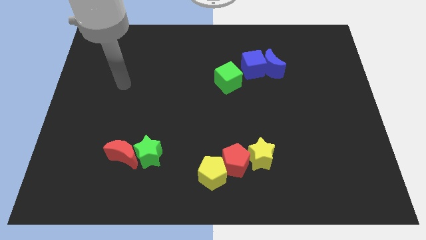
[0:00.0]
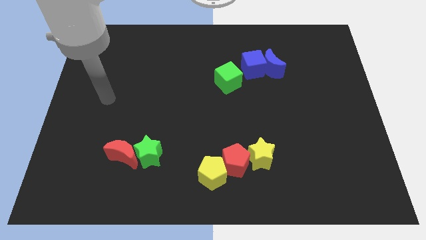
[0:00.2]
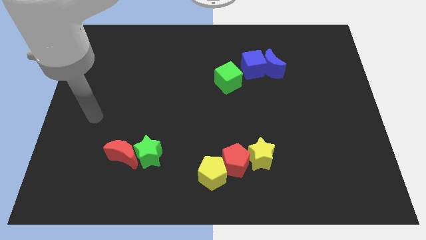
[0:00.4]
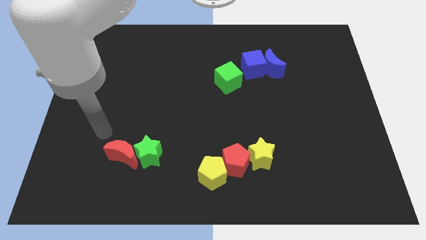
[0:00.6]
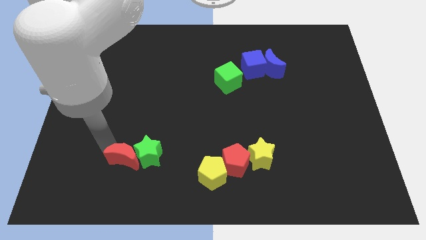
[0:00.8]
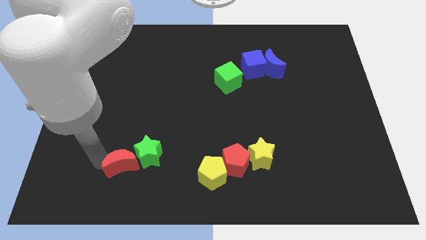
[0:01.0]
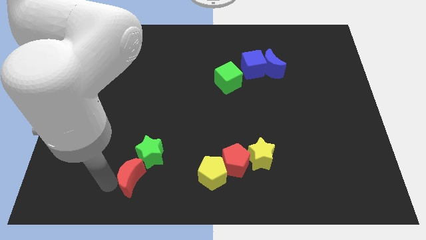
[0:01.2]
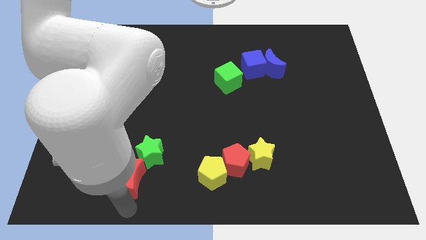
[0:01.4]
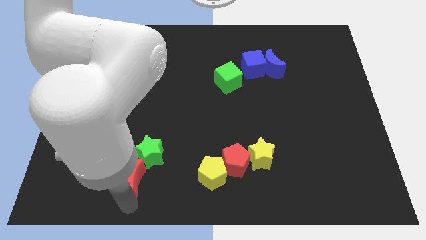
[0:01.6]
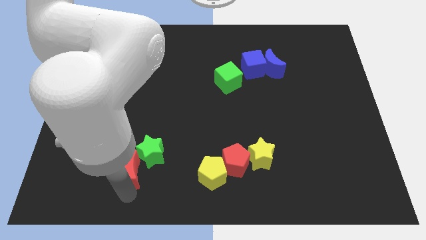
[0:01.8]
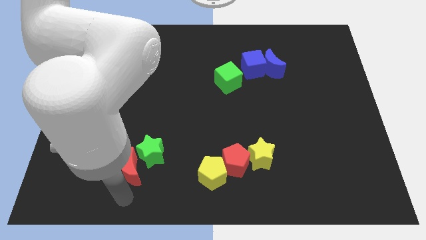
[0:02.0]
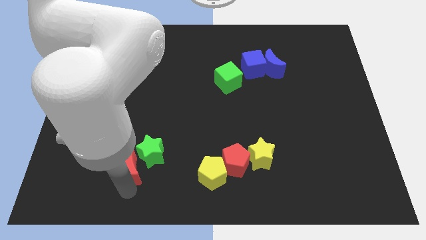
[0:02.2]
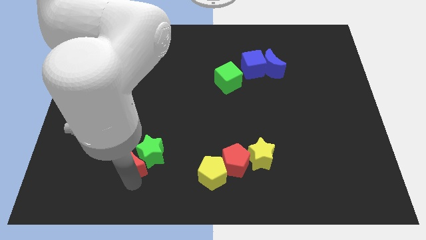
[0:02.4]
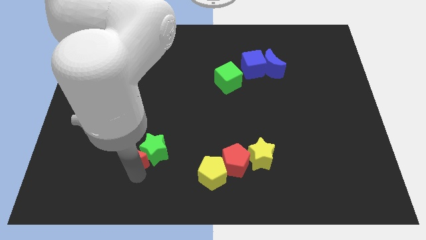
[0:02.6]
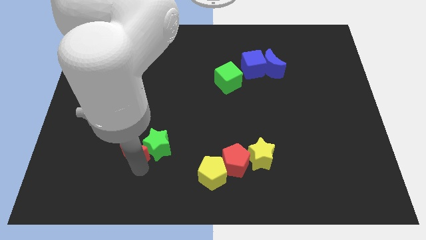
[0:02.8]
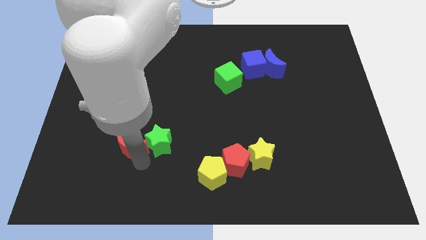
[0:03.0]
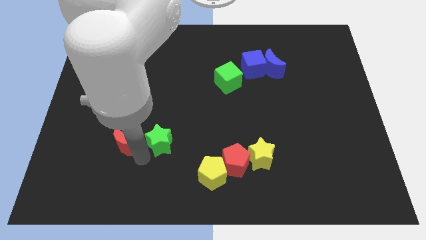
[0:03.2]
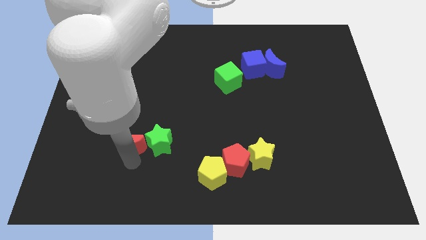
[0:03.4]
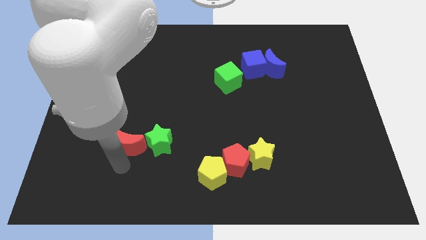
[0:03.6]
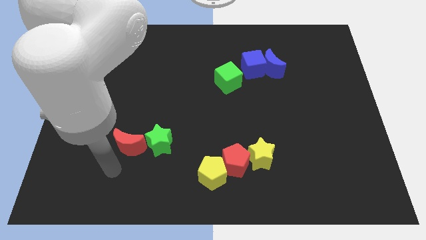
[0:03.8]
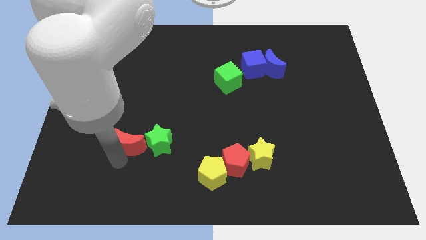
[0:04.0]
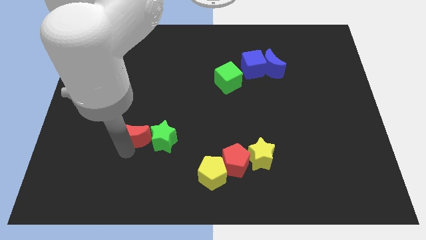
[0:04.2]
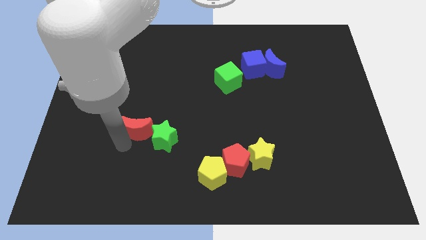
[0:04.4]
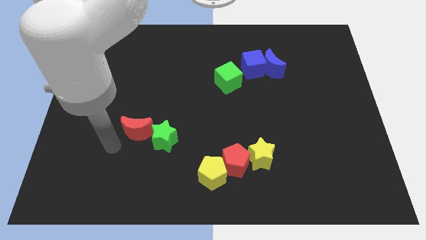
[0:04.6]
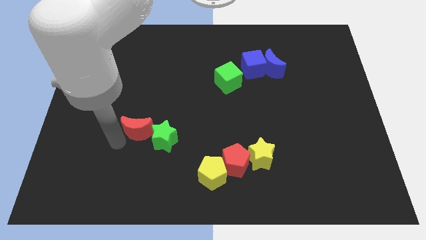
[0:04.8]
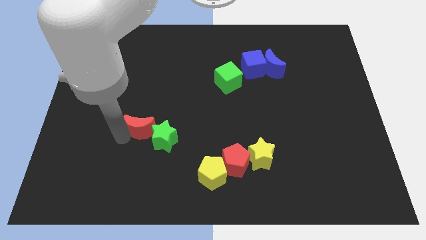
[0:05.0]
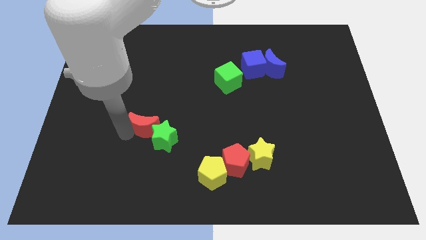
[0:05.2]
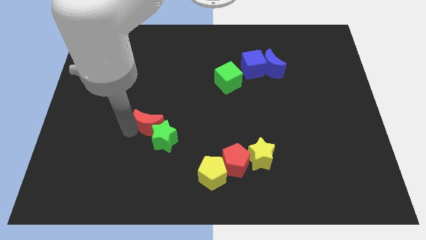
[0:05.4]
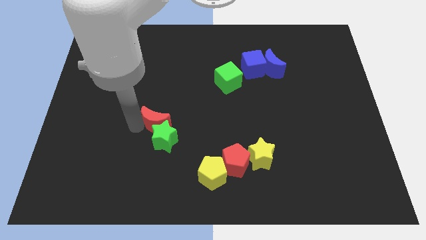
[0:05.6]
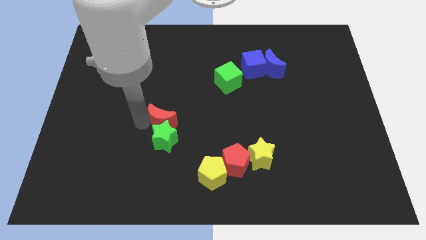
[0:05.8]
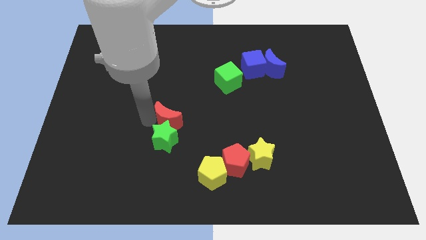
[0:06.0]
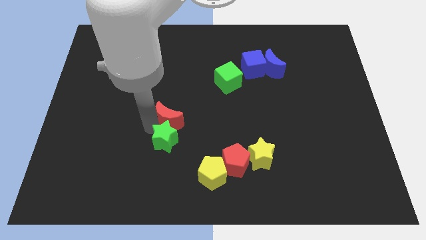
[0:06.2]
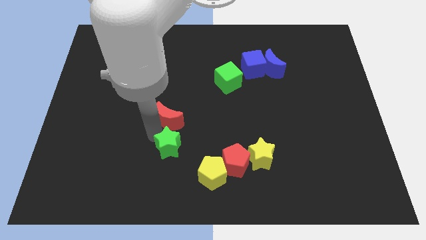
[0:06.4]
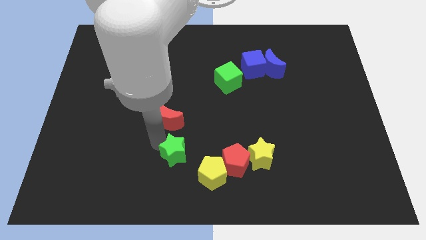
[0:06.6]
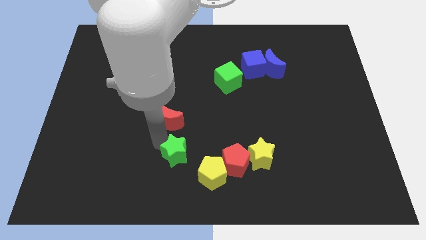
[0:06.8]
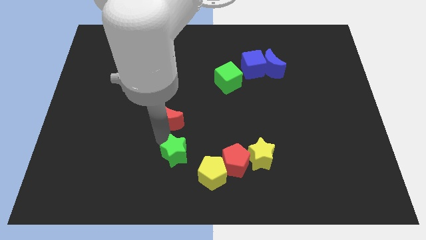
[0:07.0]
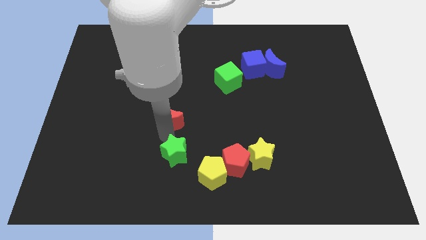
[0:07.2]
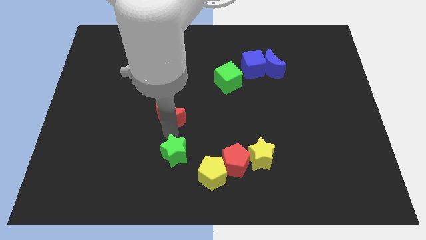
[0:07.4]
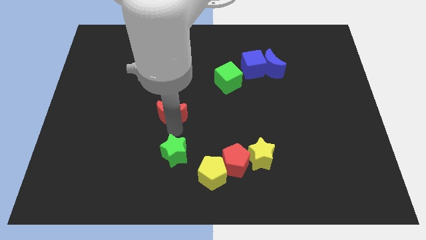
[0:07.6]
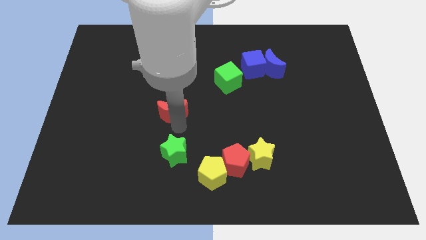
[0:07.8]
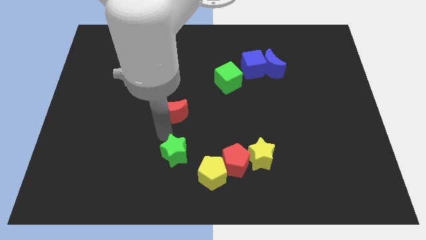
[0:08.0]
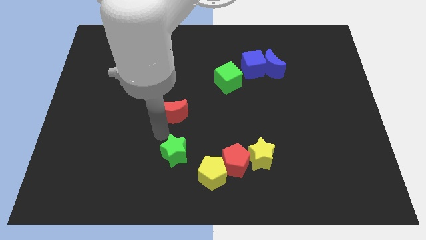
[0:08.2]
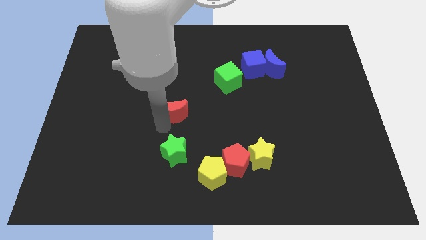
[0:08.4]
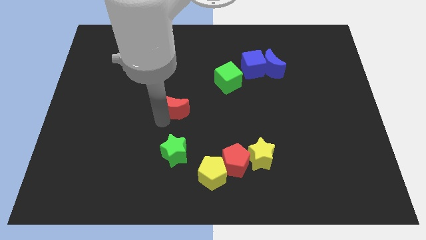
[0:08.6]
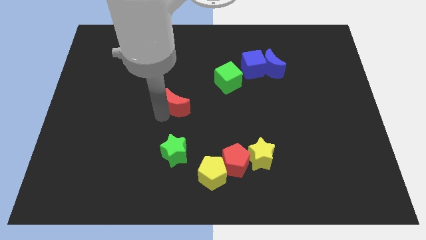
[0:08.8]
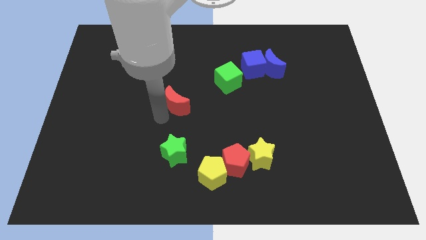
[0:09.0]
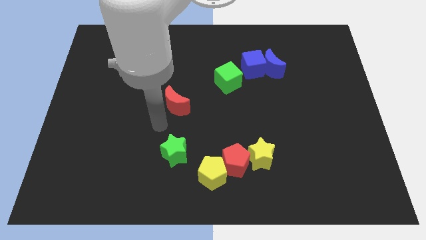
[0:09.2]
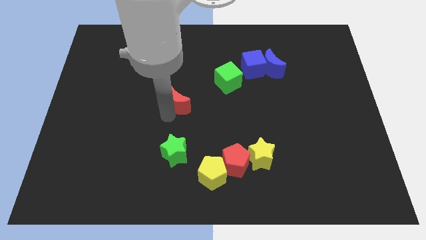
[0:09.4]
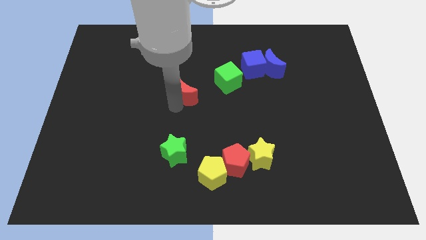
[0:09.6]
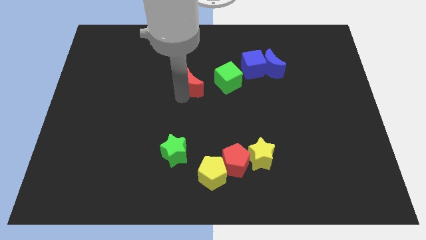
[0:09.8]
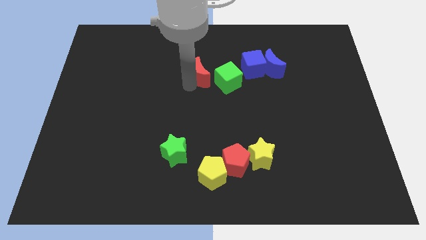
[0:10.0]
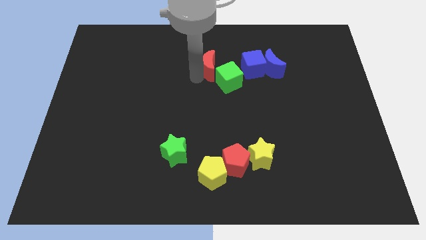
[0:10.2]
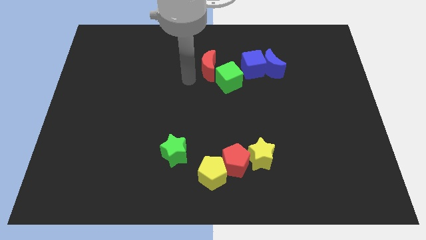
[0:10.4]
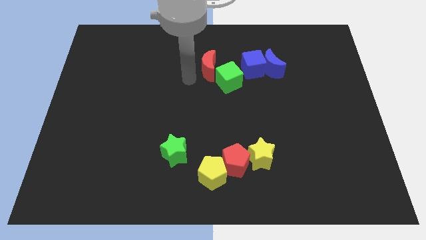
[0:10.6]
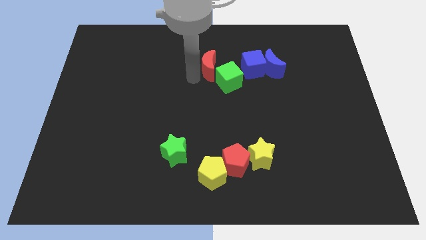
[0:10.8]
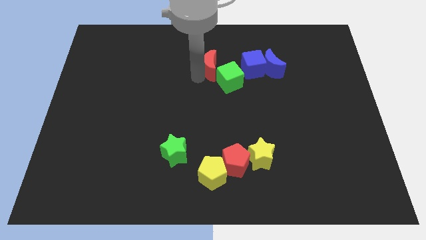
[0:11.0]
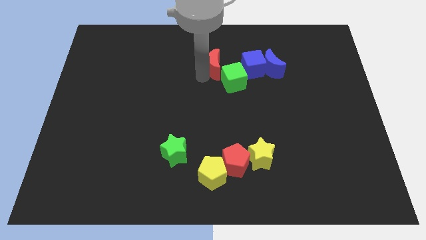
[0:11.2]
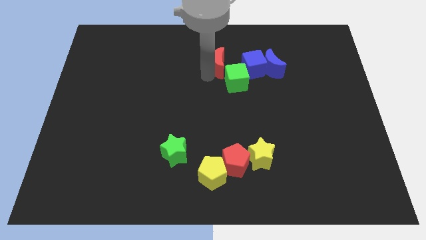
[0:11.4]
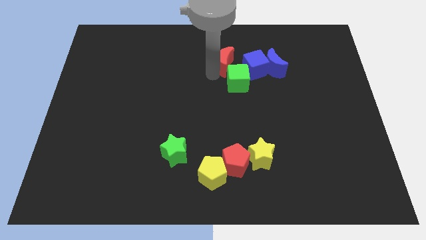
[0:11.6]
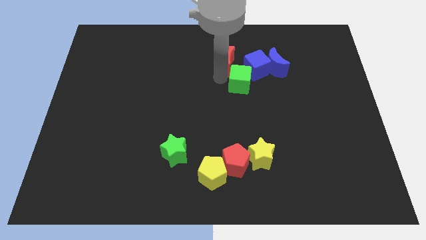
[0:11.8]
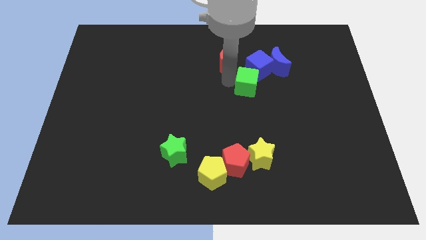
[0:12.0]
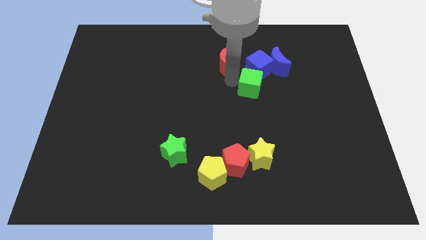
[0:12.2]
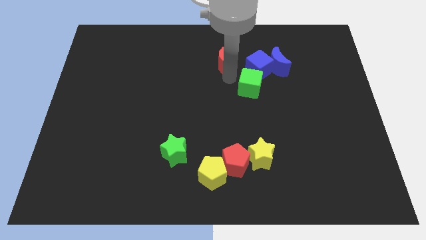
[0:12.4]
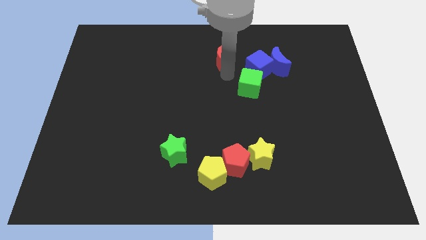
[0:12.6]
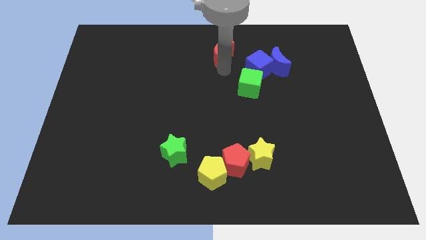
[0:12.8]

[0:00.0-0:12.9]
push the red moon to the top
